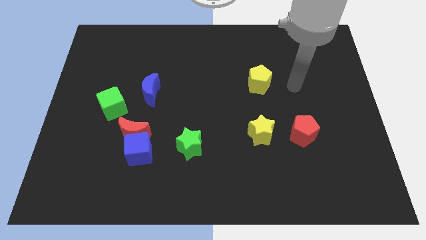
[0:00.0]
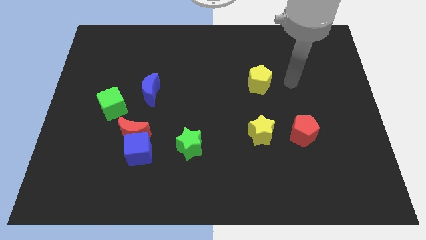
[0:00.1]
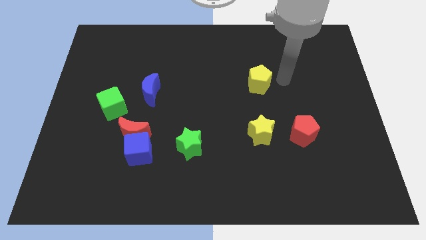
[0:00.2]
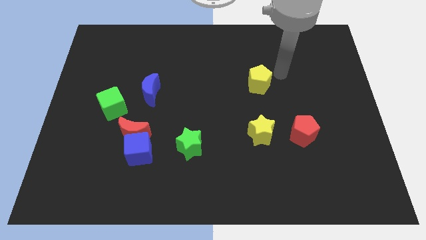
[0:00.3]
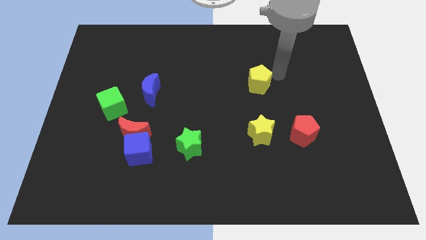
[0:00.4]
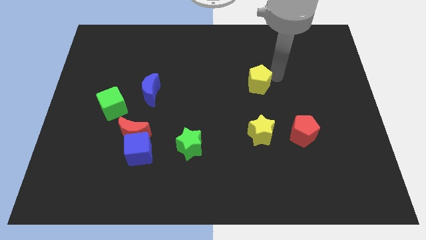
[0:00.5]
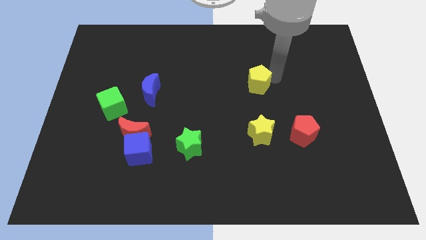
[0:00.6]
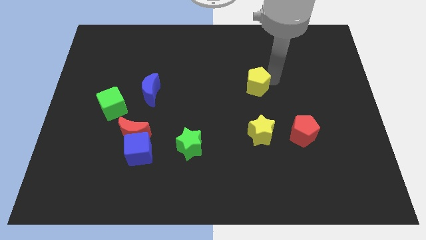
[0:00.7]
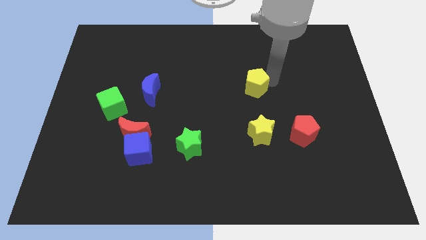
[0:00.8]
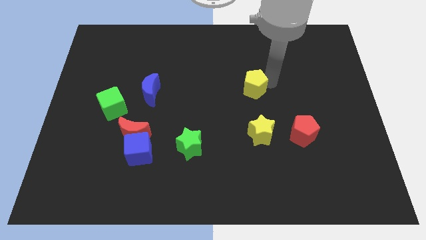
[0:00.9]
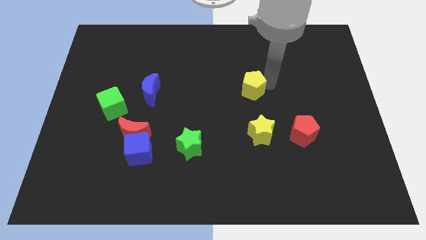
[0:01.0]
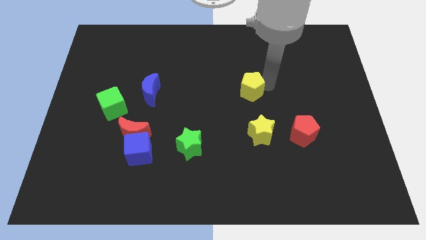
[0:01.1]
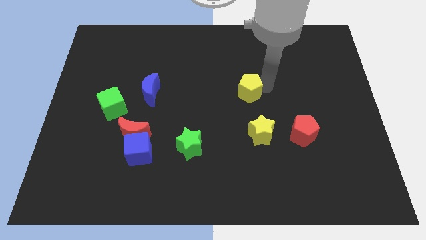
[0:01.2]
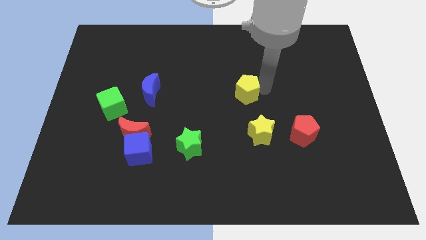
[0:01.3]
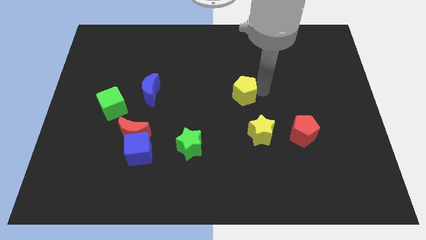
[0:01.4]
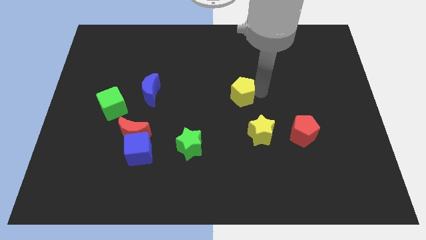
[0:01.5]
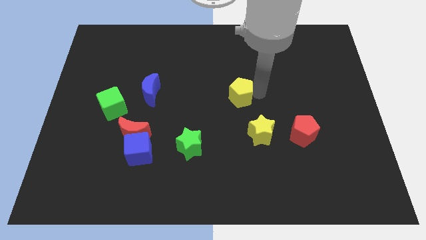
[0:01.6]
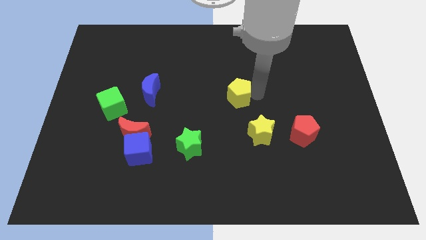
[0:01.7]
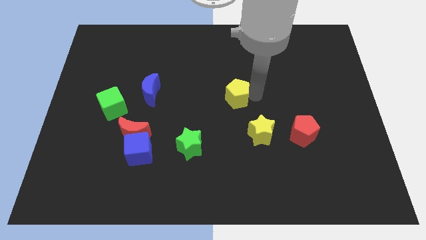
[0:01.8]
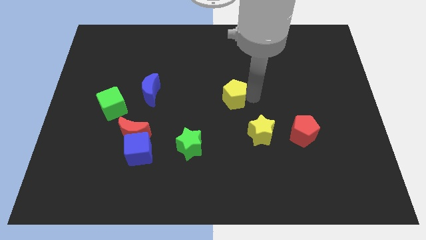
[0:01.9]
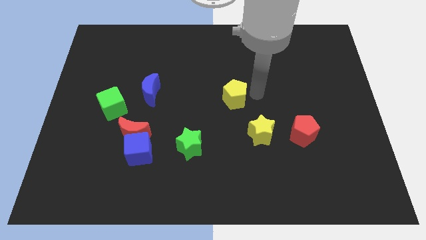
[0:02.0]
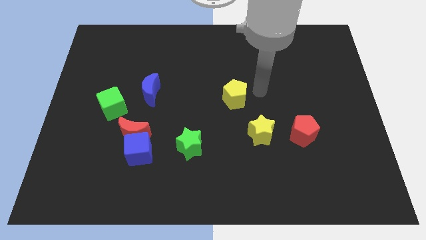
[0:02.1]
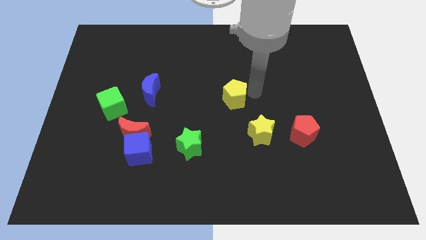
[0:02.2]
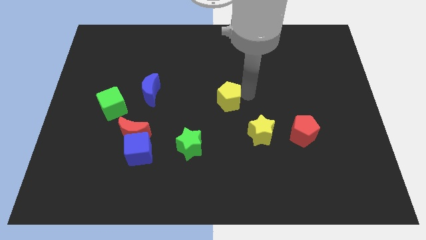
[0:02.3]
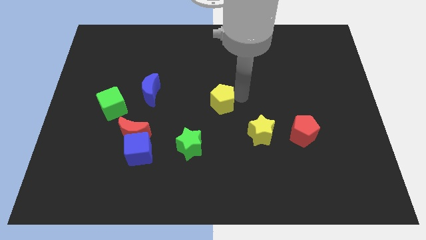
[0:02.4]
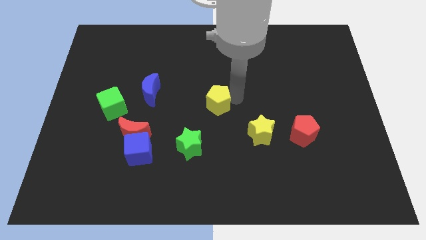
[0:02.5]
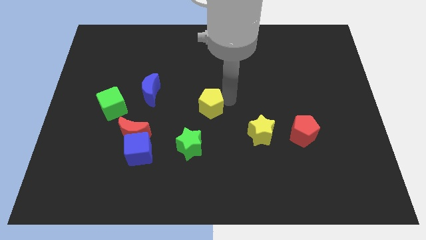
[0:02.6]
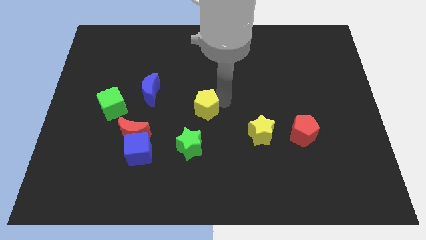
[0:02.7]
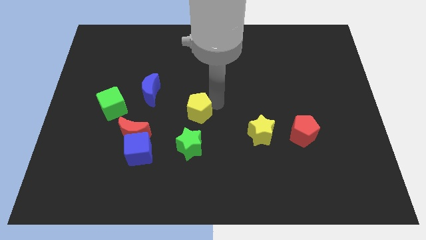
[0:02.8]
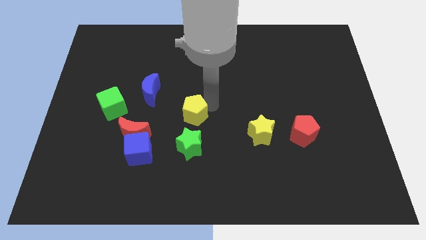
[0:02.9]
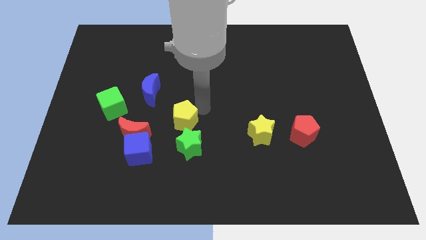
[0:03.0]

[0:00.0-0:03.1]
move the yellow pentagon downwards and to the left

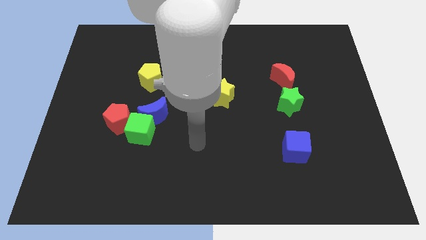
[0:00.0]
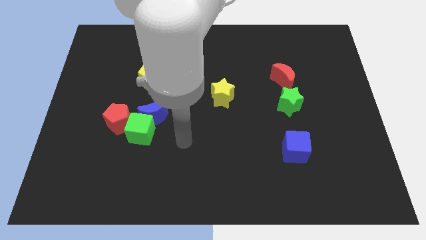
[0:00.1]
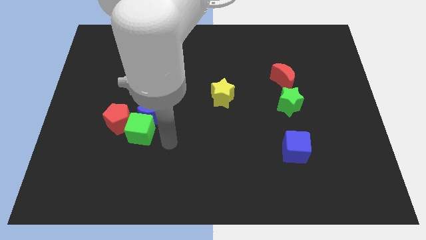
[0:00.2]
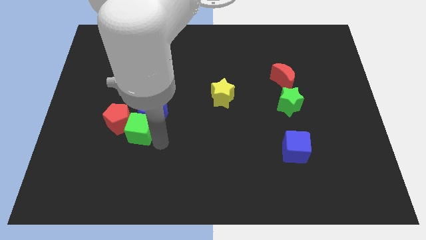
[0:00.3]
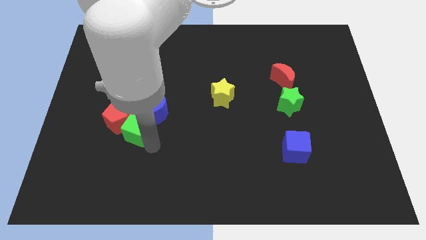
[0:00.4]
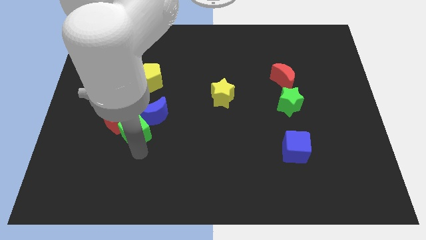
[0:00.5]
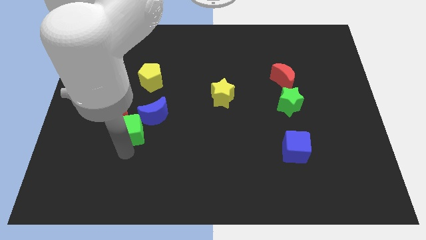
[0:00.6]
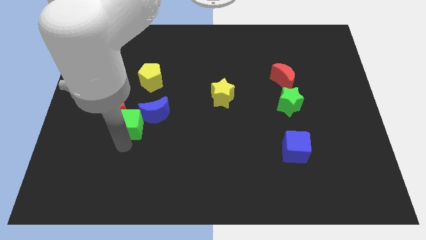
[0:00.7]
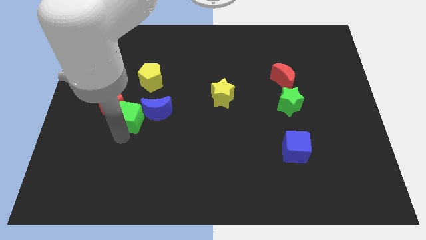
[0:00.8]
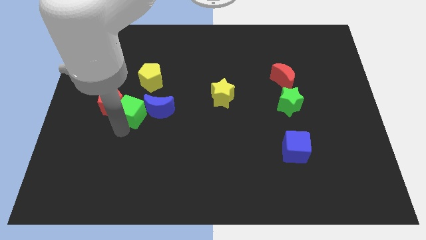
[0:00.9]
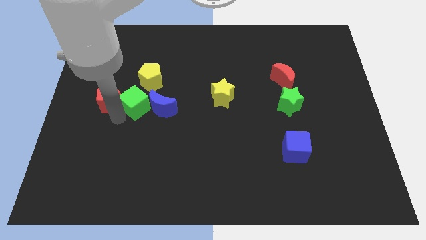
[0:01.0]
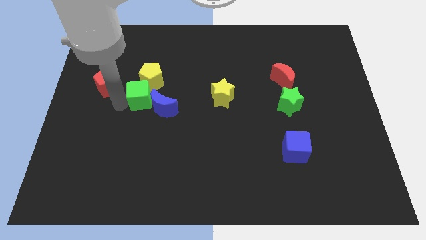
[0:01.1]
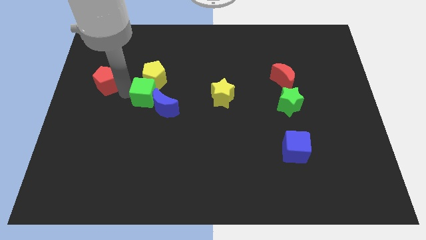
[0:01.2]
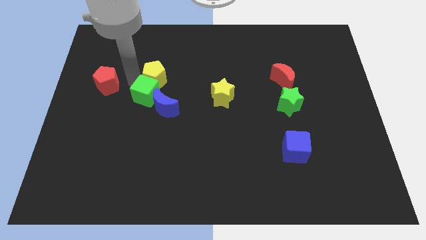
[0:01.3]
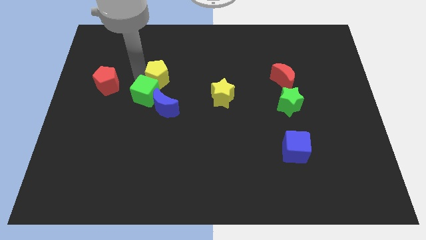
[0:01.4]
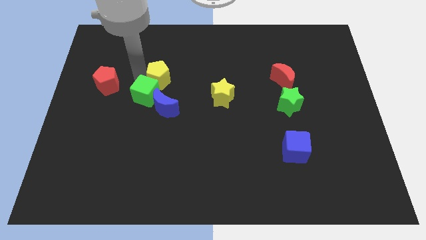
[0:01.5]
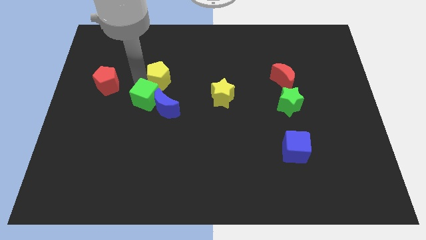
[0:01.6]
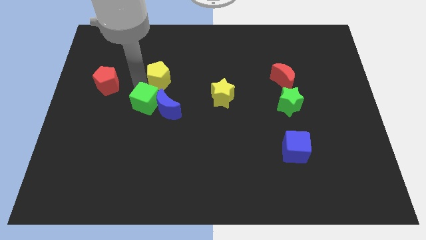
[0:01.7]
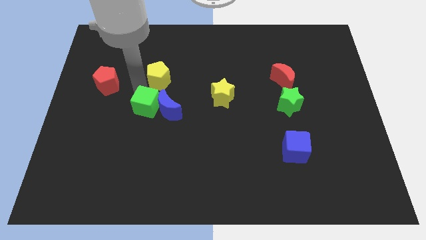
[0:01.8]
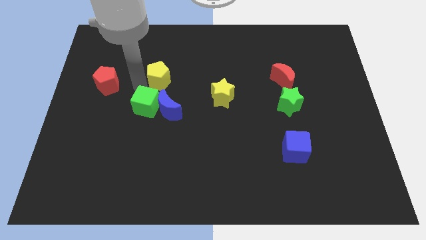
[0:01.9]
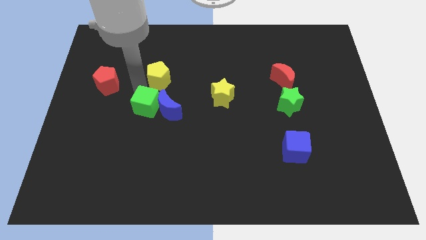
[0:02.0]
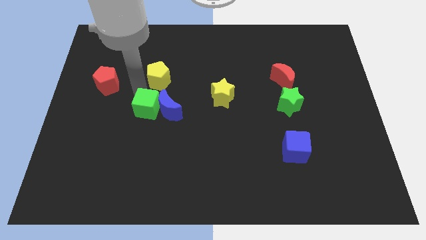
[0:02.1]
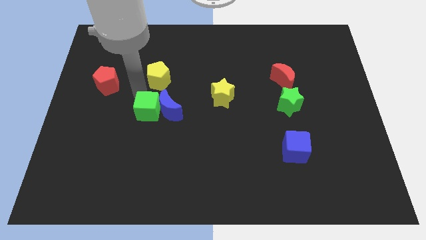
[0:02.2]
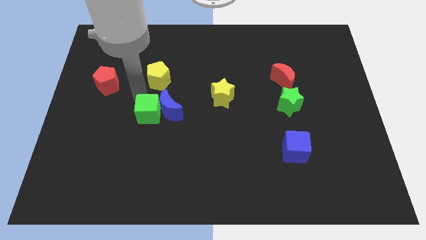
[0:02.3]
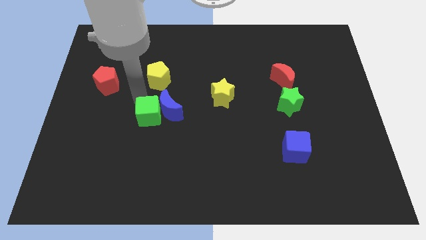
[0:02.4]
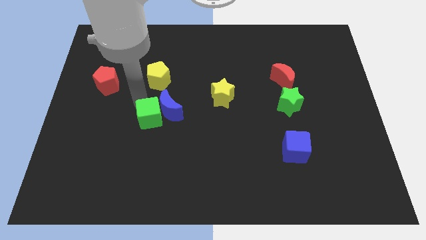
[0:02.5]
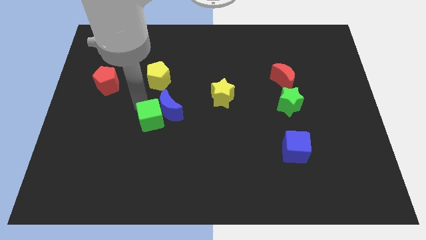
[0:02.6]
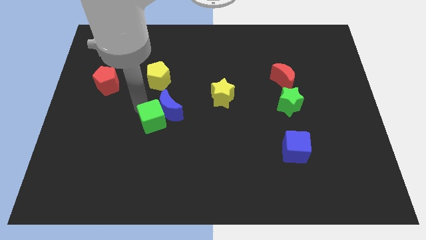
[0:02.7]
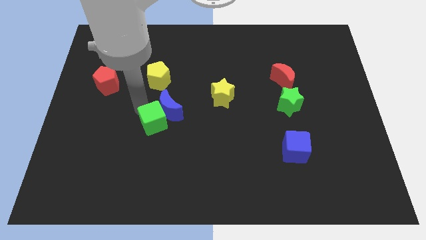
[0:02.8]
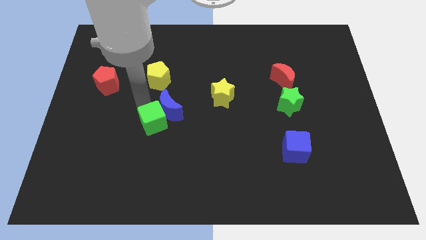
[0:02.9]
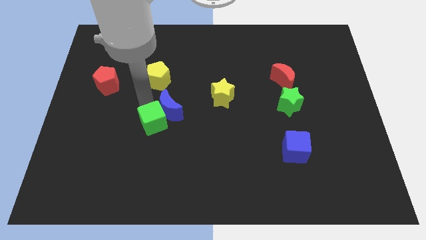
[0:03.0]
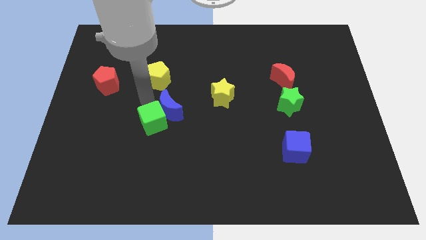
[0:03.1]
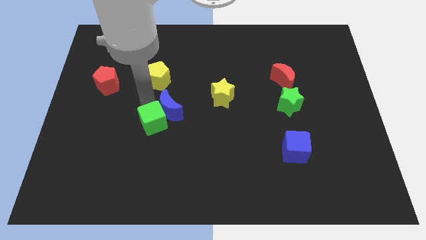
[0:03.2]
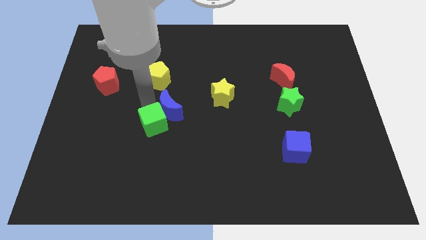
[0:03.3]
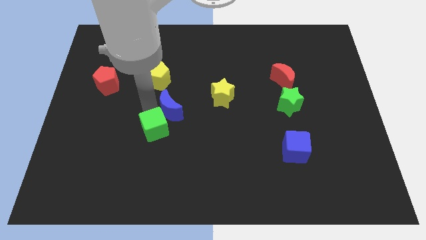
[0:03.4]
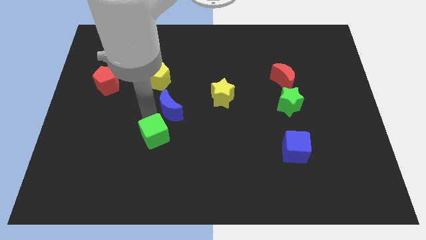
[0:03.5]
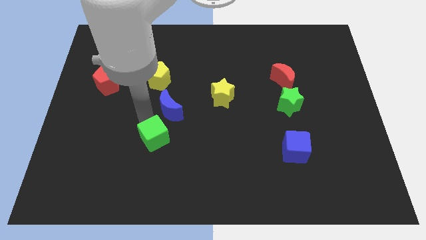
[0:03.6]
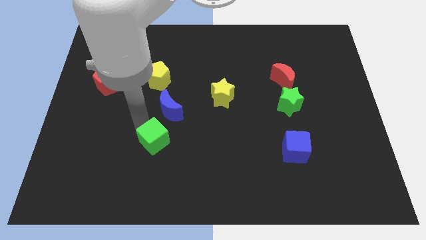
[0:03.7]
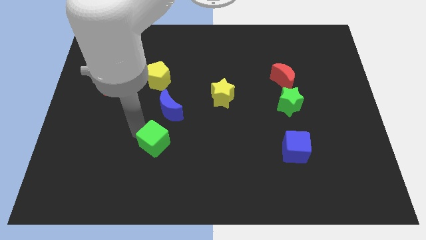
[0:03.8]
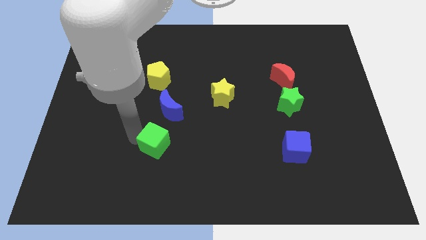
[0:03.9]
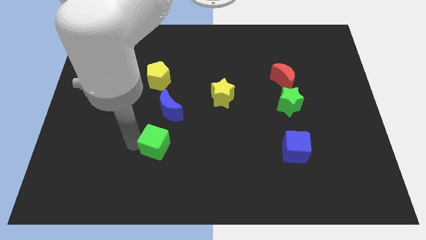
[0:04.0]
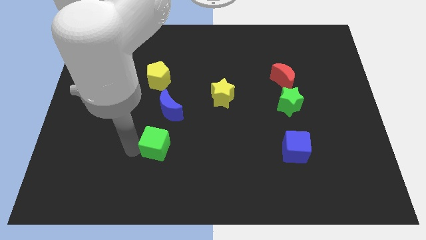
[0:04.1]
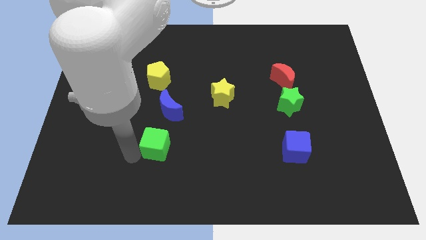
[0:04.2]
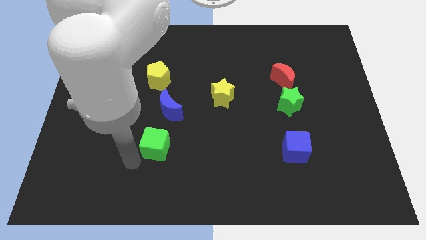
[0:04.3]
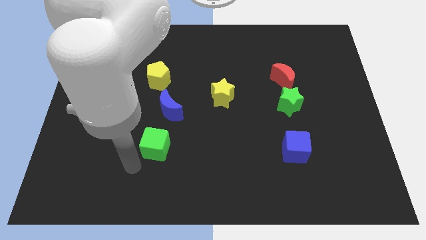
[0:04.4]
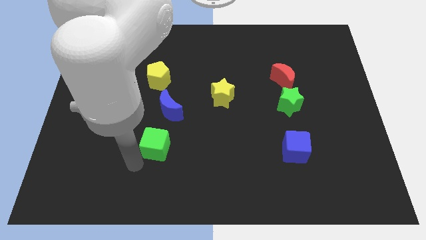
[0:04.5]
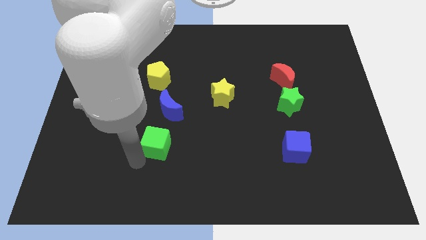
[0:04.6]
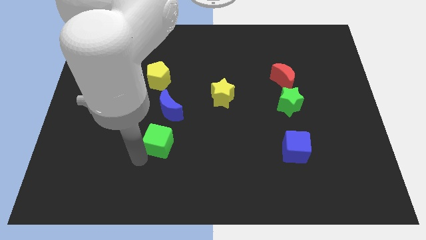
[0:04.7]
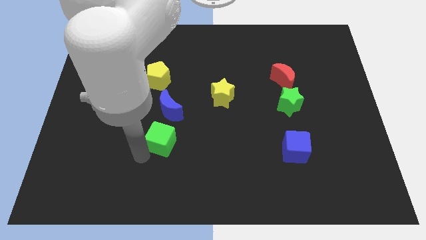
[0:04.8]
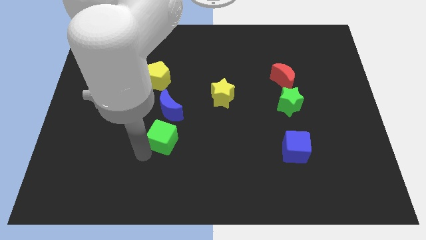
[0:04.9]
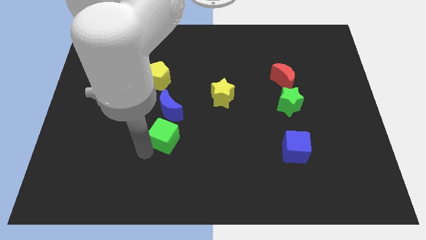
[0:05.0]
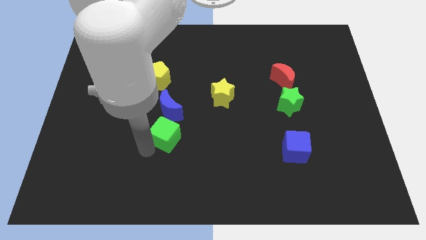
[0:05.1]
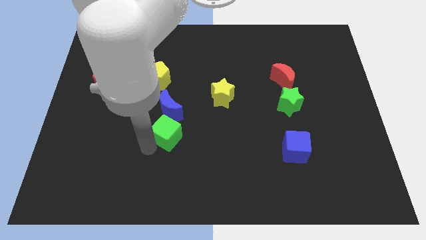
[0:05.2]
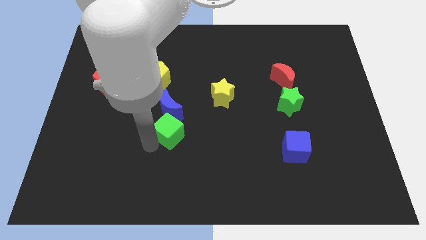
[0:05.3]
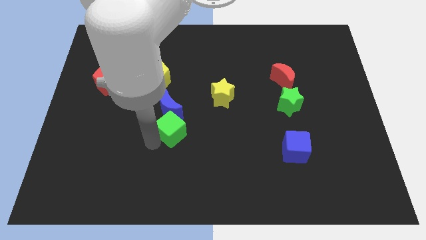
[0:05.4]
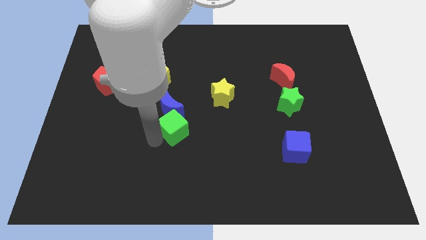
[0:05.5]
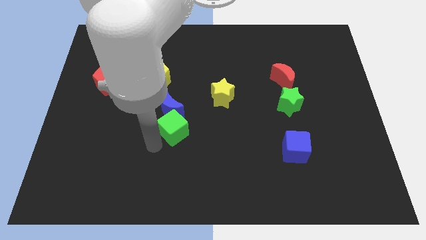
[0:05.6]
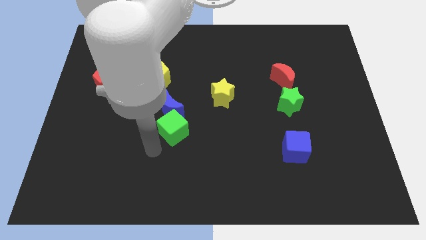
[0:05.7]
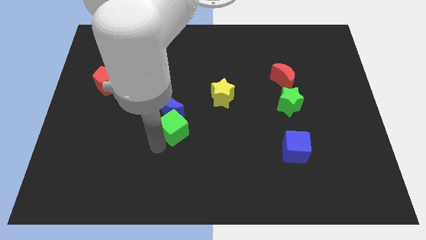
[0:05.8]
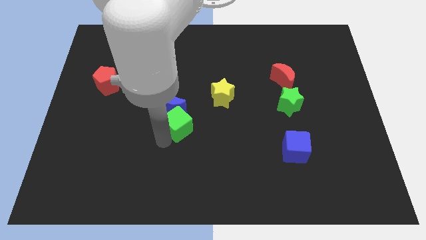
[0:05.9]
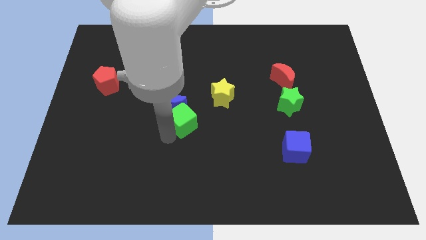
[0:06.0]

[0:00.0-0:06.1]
move the green cube somewhat up and right diagonally
